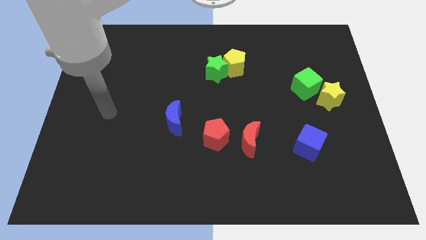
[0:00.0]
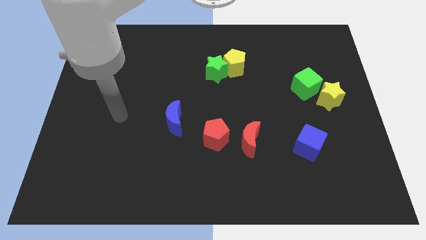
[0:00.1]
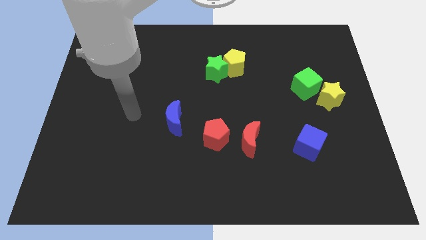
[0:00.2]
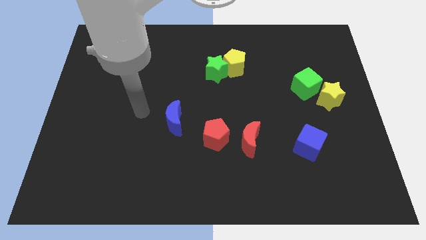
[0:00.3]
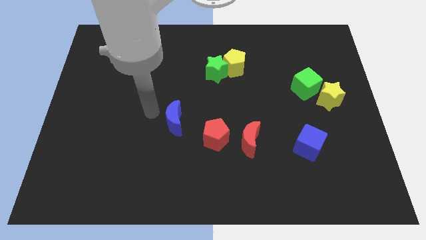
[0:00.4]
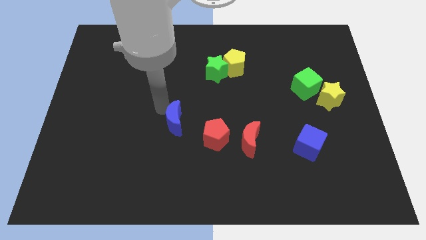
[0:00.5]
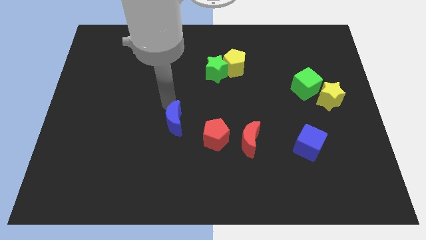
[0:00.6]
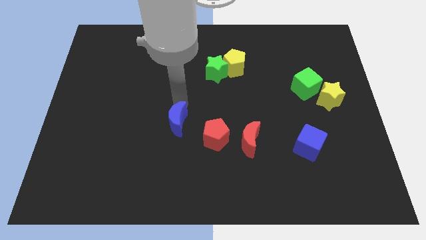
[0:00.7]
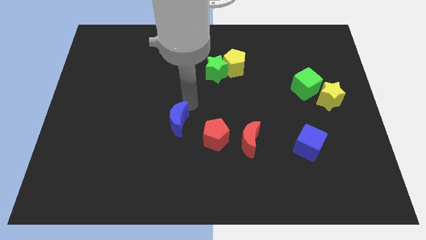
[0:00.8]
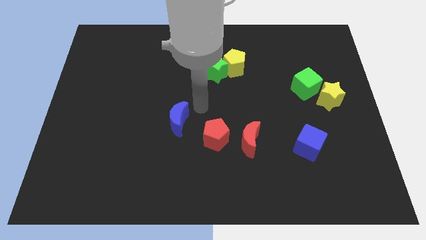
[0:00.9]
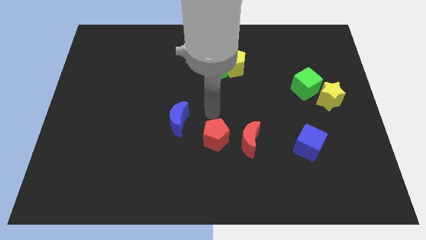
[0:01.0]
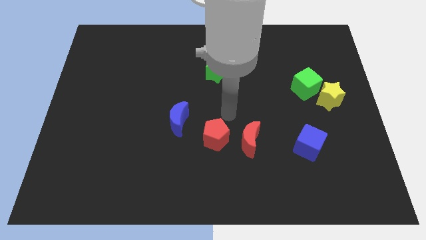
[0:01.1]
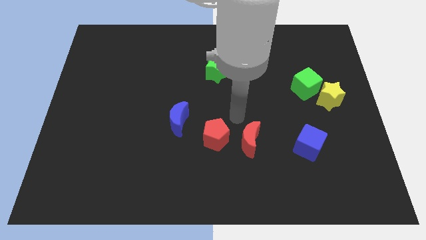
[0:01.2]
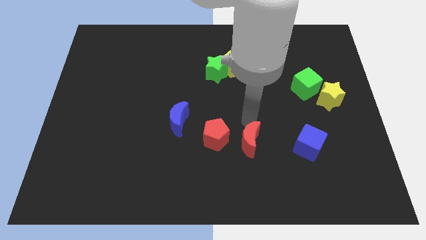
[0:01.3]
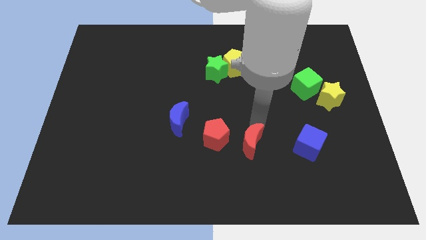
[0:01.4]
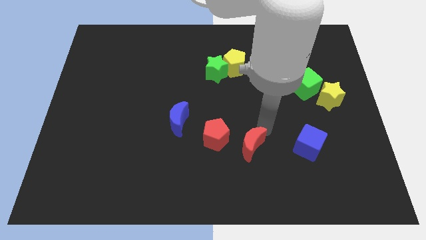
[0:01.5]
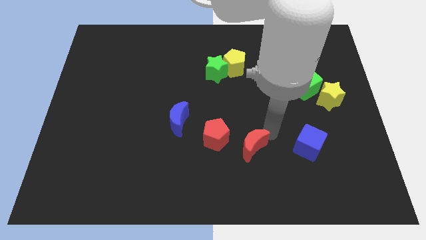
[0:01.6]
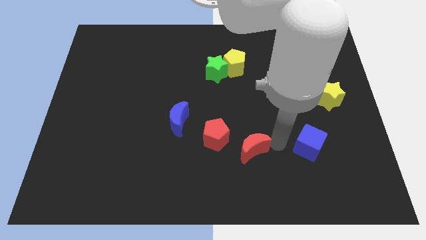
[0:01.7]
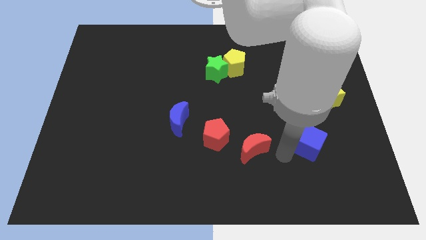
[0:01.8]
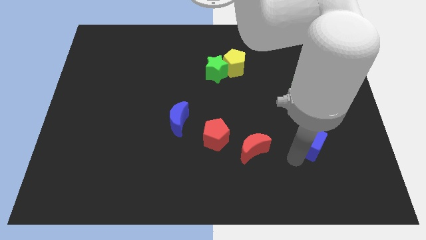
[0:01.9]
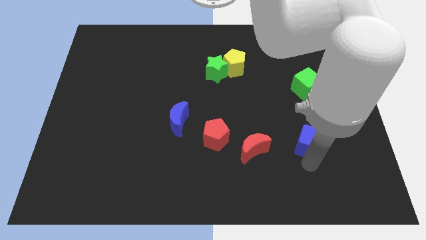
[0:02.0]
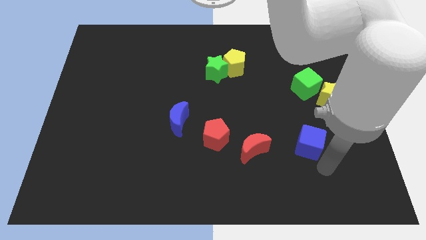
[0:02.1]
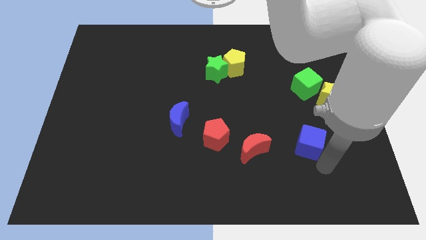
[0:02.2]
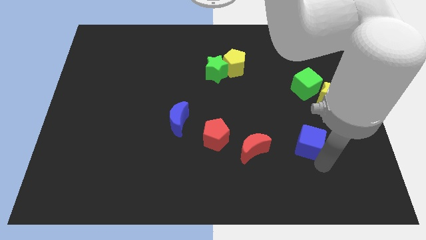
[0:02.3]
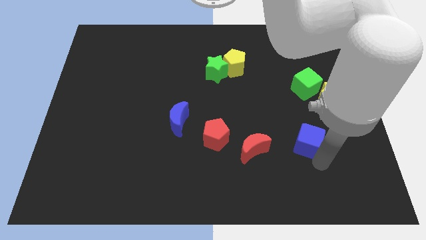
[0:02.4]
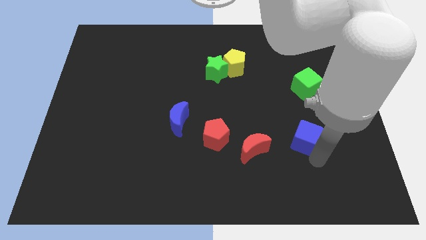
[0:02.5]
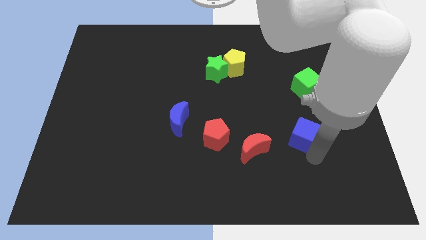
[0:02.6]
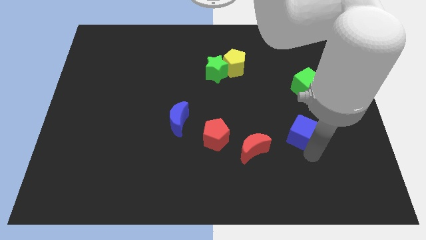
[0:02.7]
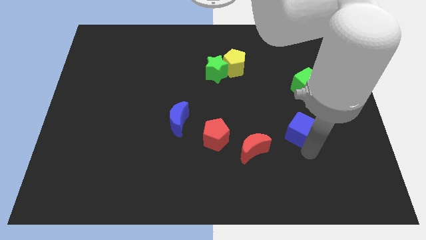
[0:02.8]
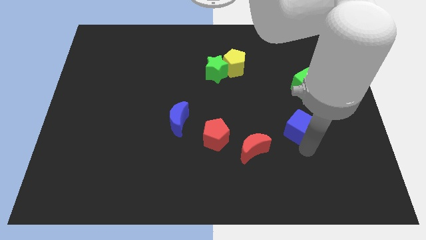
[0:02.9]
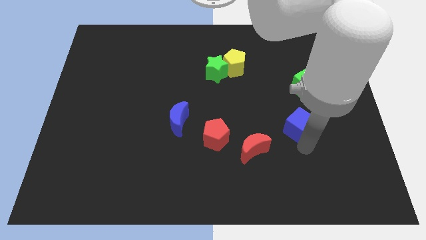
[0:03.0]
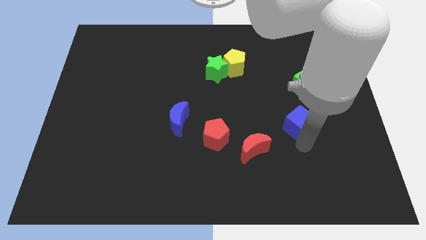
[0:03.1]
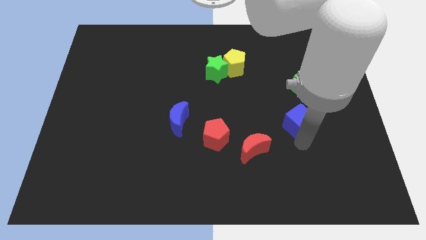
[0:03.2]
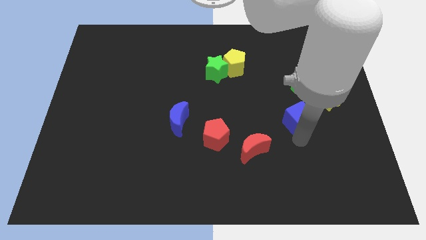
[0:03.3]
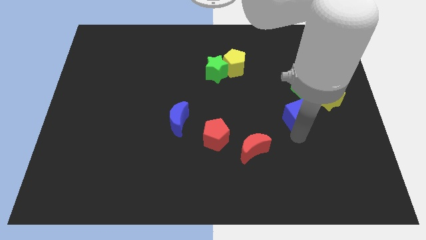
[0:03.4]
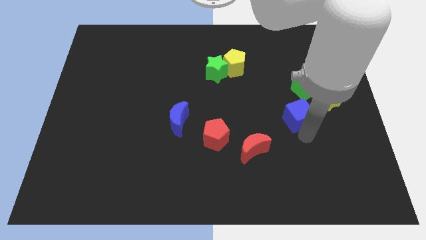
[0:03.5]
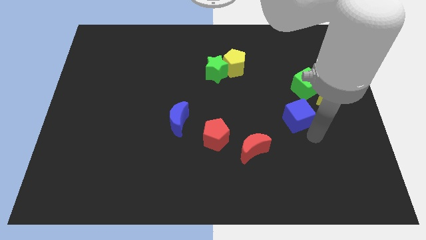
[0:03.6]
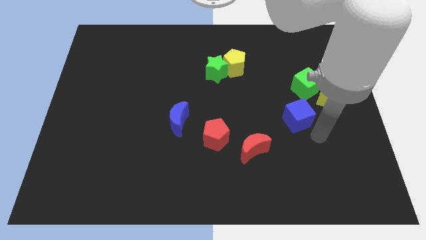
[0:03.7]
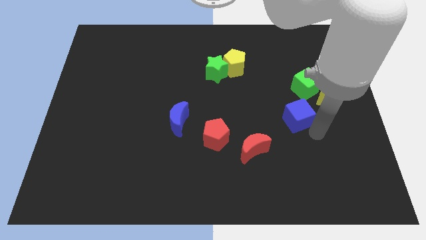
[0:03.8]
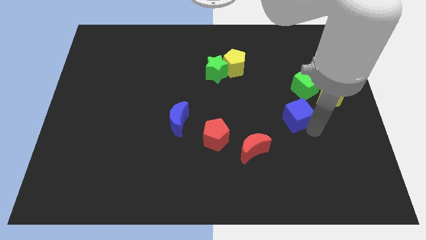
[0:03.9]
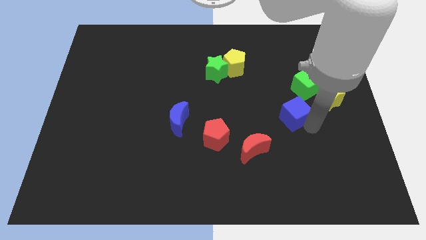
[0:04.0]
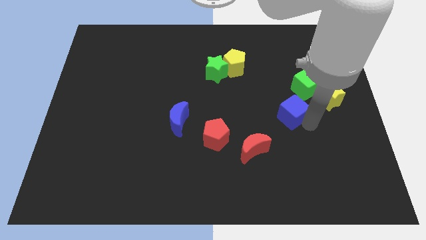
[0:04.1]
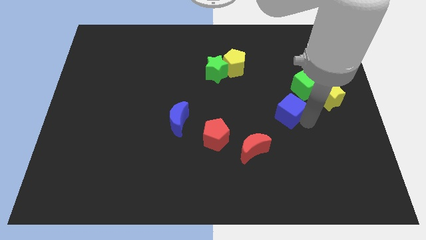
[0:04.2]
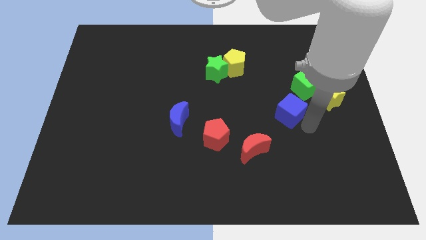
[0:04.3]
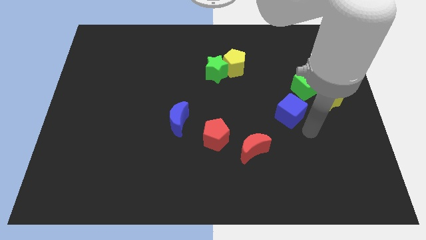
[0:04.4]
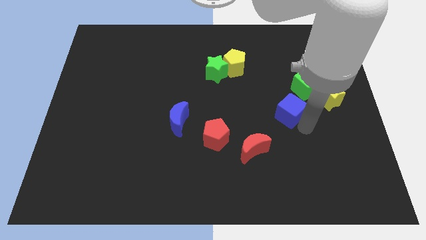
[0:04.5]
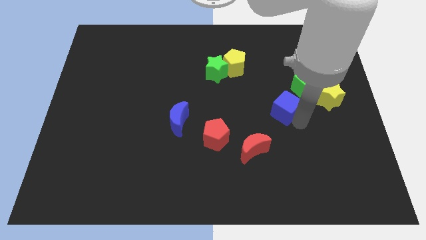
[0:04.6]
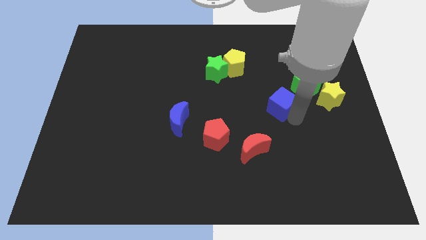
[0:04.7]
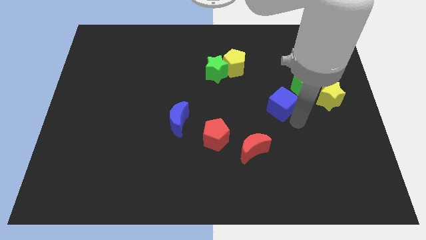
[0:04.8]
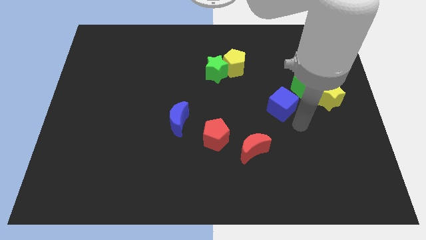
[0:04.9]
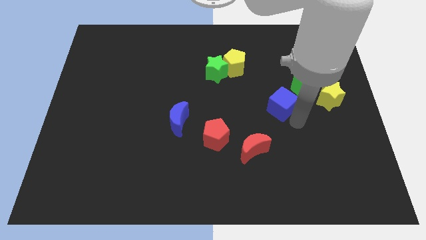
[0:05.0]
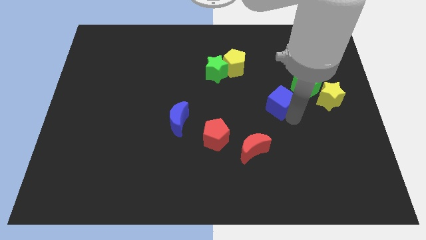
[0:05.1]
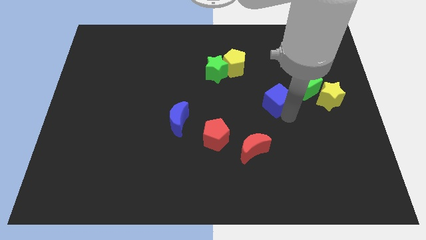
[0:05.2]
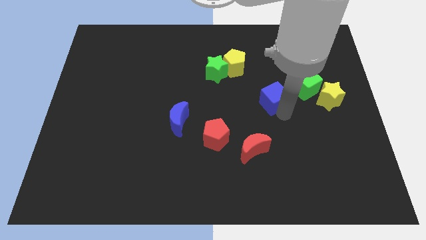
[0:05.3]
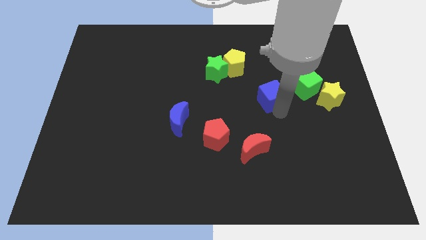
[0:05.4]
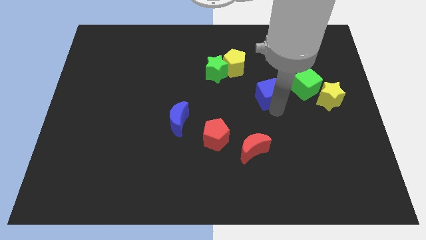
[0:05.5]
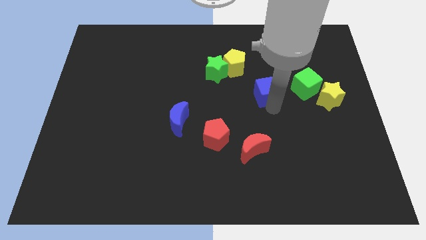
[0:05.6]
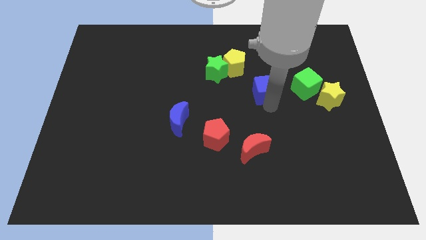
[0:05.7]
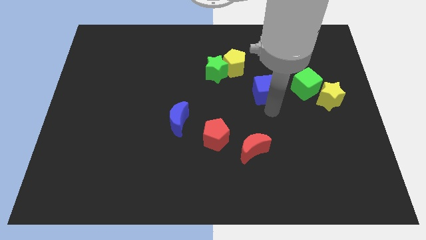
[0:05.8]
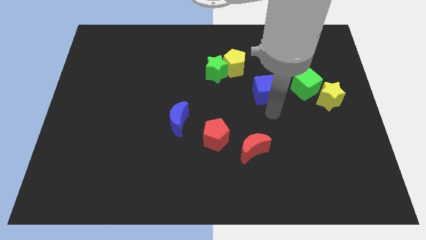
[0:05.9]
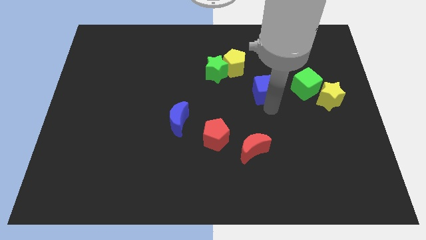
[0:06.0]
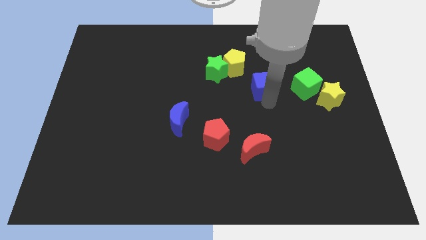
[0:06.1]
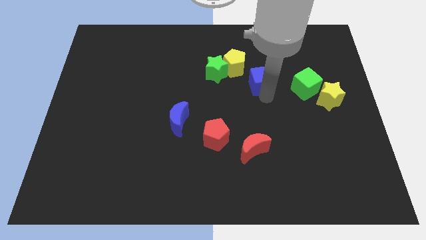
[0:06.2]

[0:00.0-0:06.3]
put the blue cube to the right side of the green star

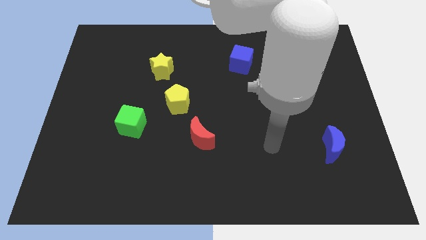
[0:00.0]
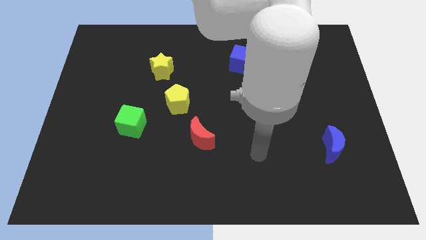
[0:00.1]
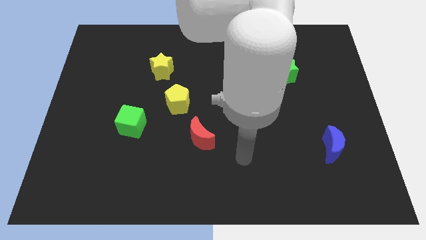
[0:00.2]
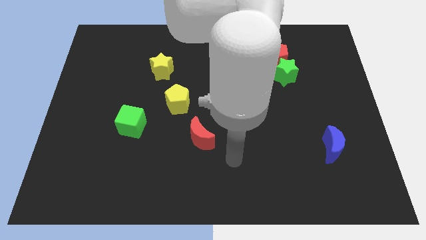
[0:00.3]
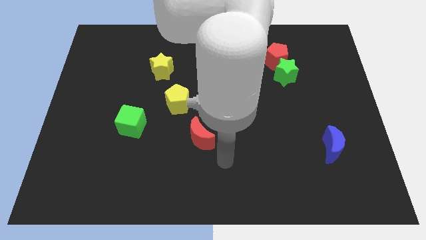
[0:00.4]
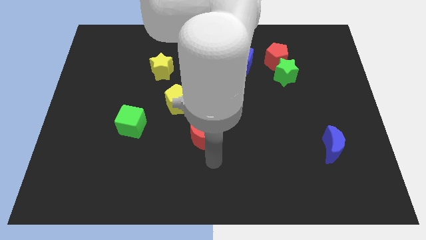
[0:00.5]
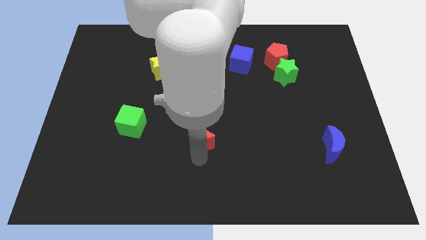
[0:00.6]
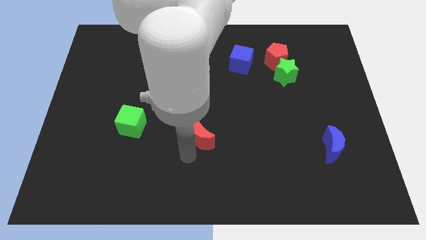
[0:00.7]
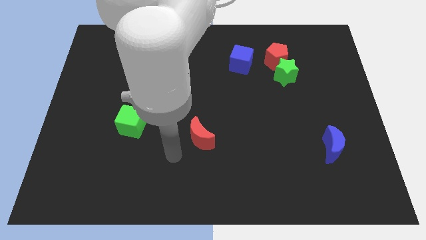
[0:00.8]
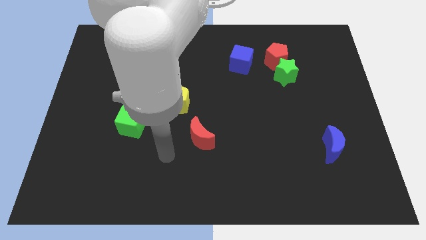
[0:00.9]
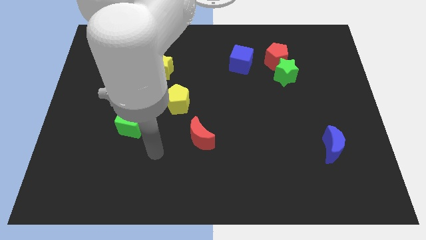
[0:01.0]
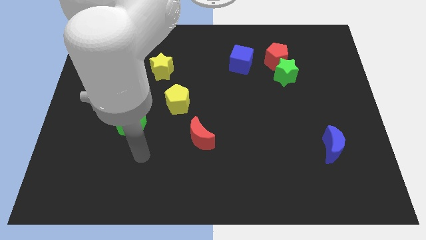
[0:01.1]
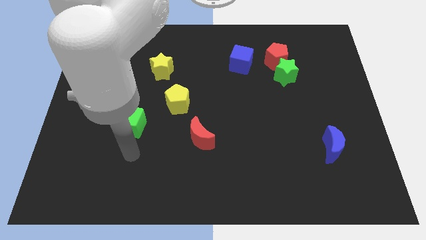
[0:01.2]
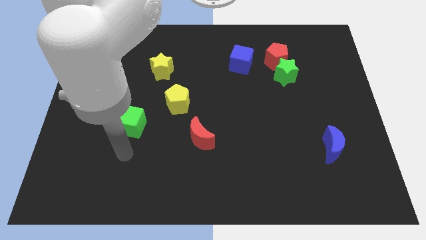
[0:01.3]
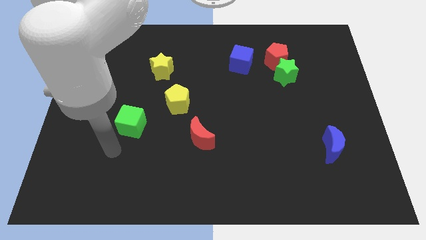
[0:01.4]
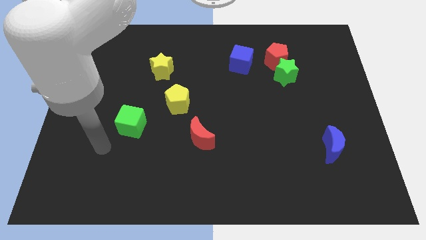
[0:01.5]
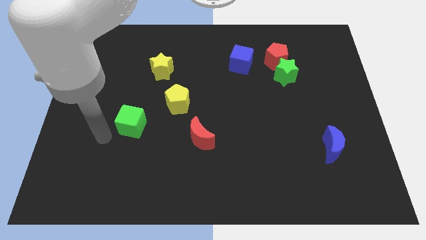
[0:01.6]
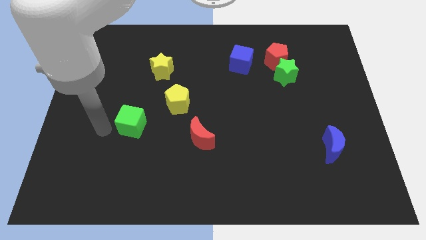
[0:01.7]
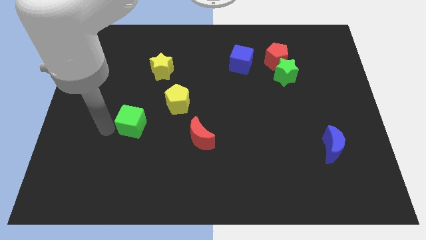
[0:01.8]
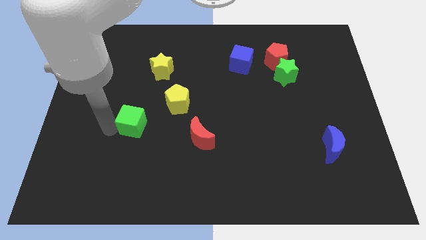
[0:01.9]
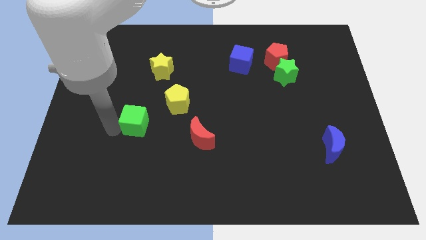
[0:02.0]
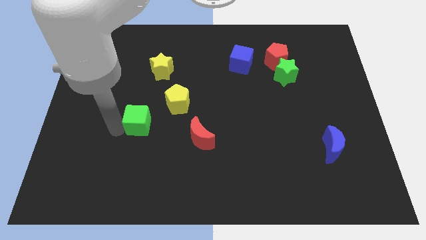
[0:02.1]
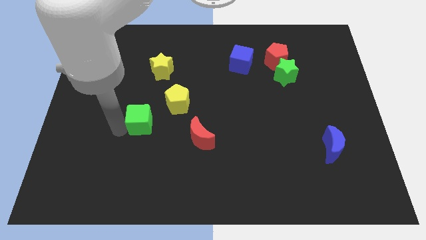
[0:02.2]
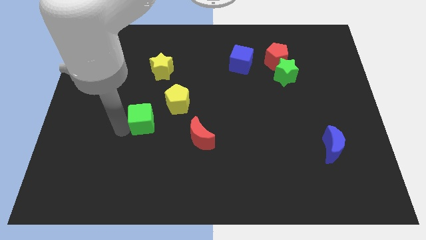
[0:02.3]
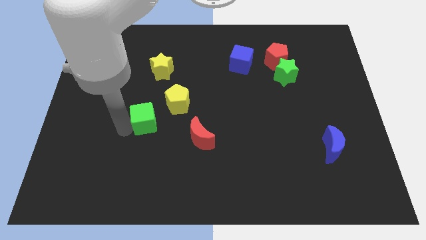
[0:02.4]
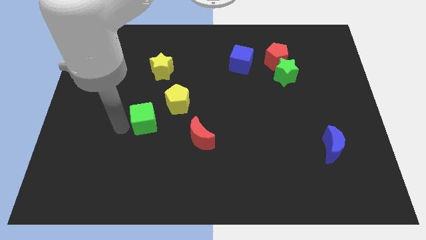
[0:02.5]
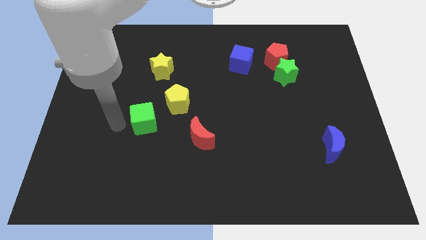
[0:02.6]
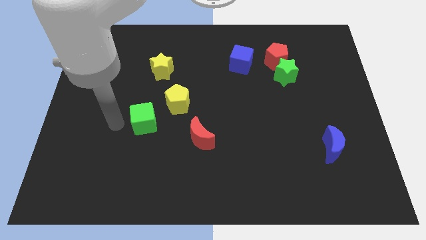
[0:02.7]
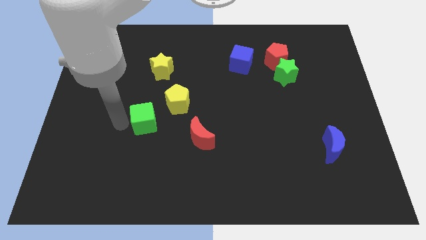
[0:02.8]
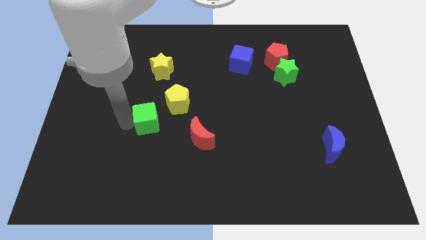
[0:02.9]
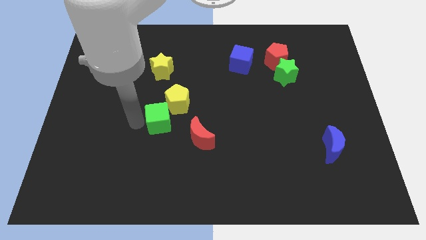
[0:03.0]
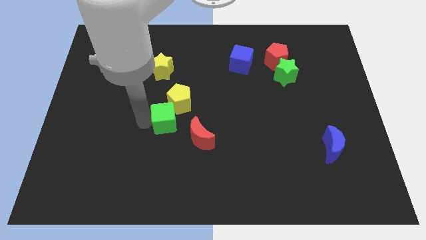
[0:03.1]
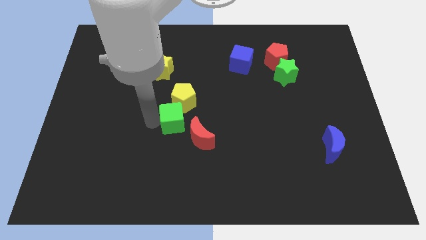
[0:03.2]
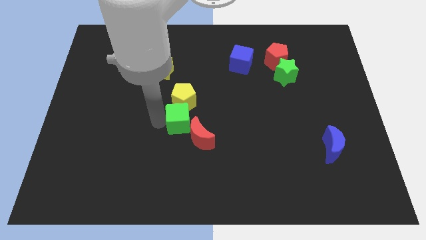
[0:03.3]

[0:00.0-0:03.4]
slide the green cube to the top of the red moon
